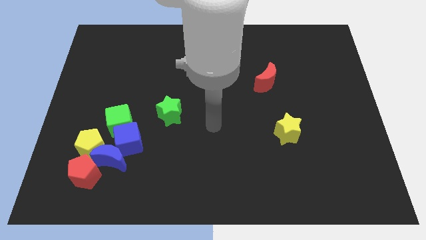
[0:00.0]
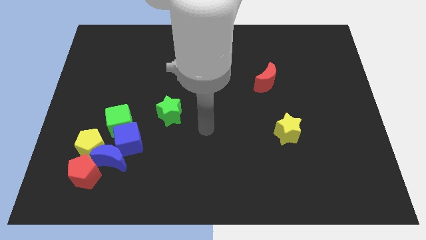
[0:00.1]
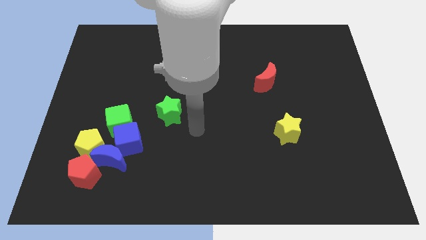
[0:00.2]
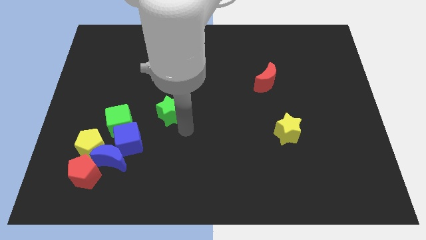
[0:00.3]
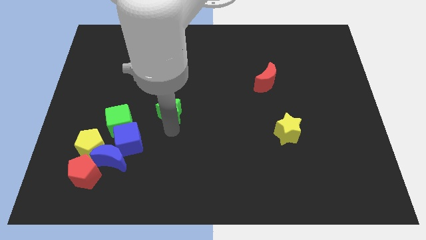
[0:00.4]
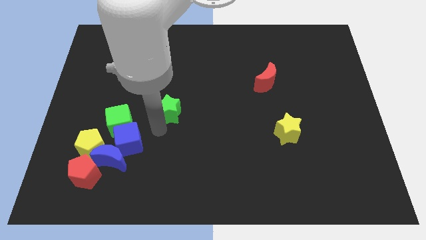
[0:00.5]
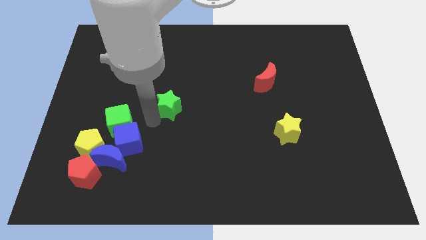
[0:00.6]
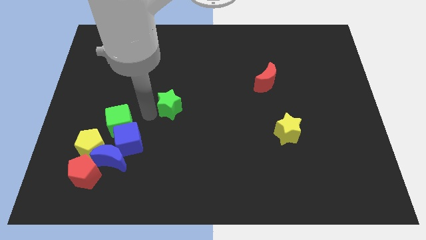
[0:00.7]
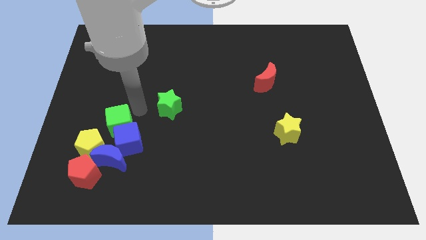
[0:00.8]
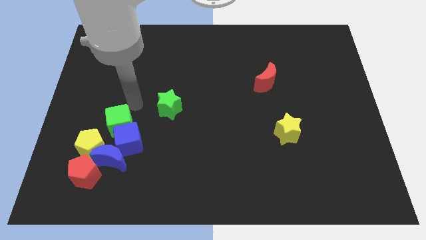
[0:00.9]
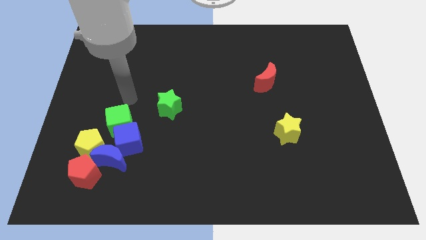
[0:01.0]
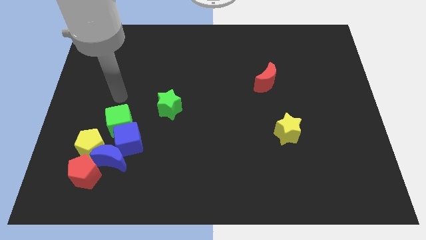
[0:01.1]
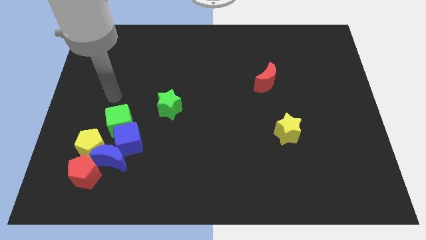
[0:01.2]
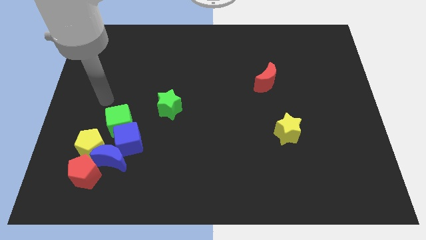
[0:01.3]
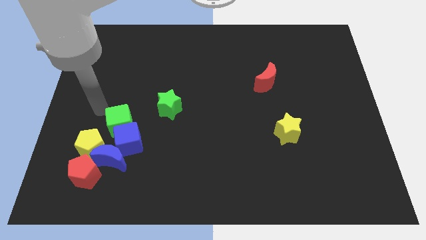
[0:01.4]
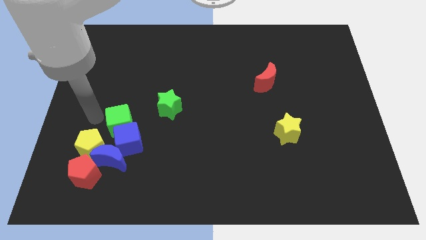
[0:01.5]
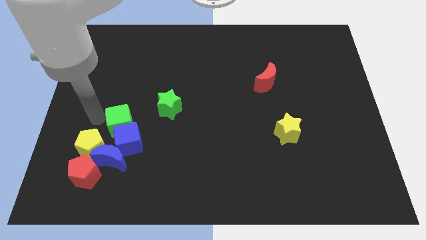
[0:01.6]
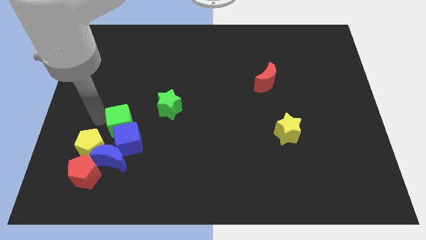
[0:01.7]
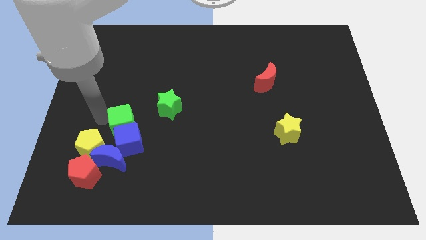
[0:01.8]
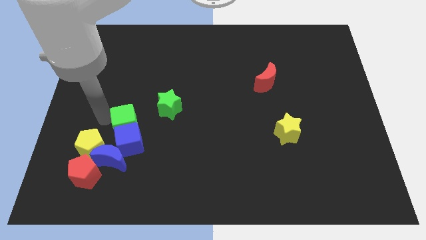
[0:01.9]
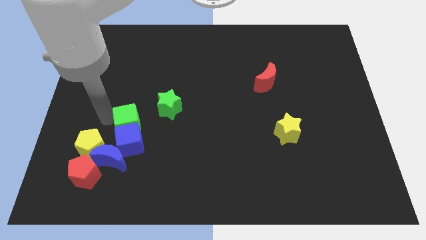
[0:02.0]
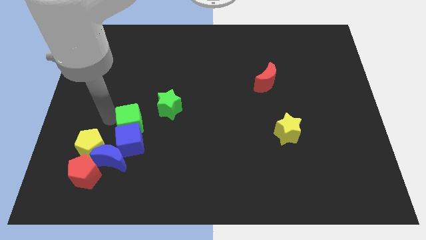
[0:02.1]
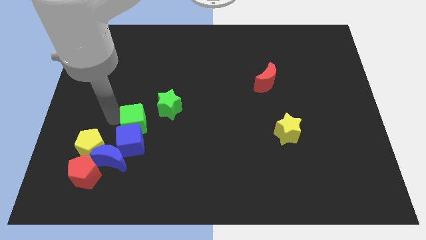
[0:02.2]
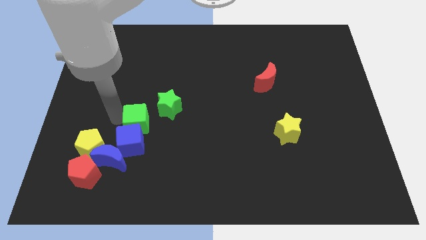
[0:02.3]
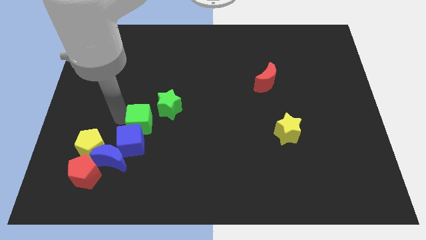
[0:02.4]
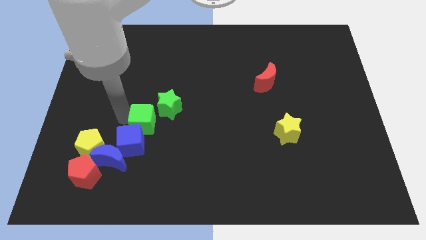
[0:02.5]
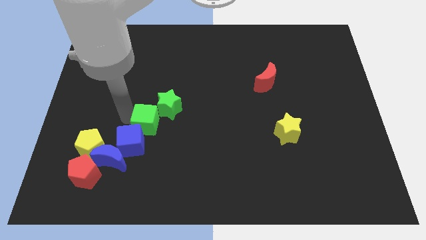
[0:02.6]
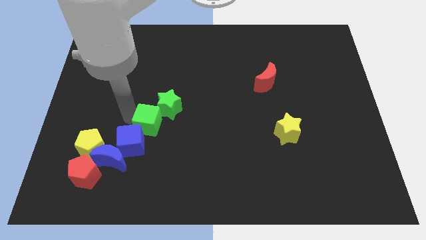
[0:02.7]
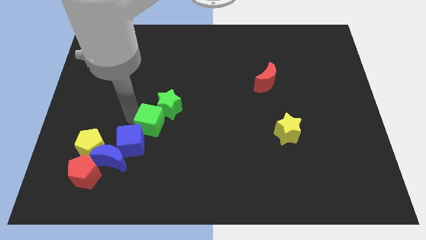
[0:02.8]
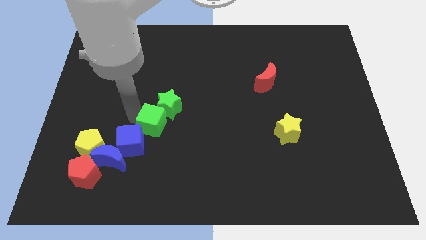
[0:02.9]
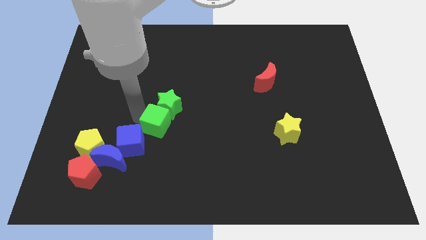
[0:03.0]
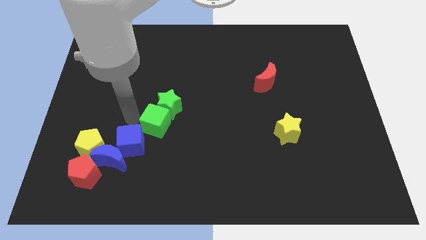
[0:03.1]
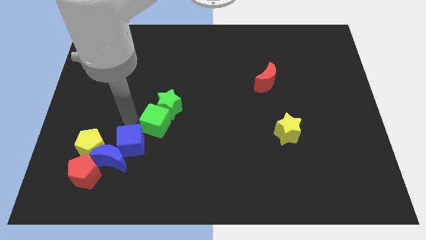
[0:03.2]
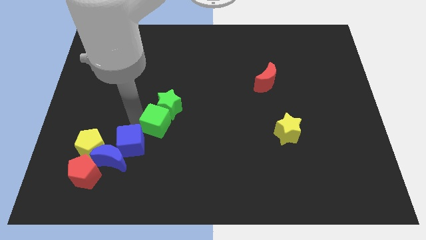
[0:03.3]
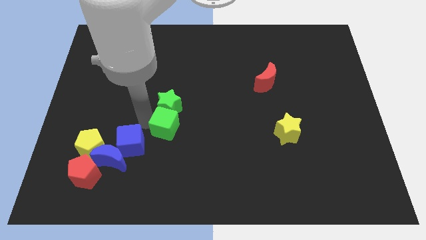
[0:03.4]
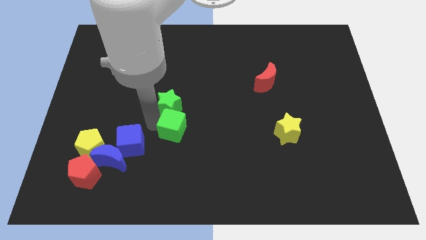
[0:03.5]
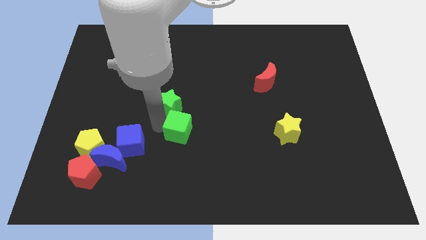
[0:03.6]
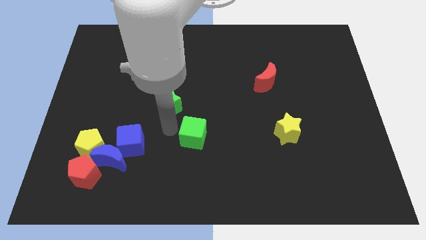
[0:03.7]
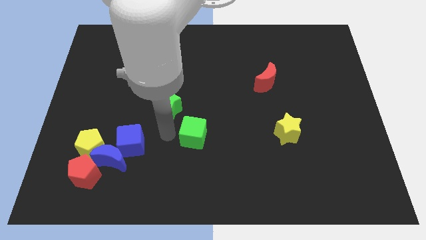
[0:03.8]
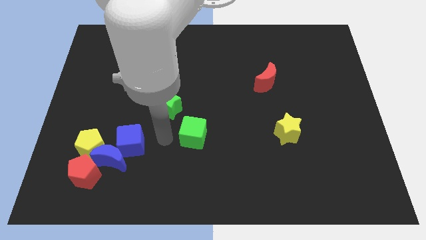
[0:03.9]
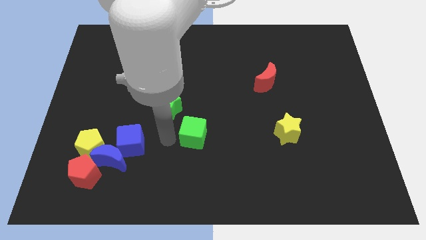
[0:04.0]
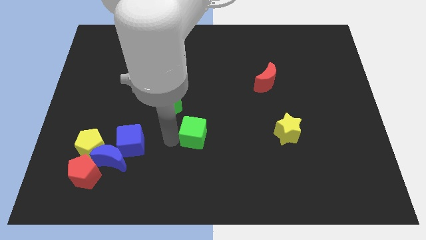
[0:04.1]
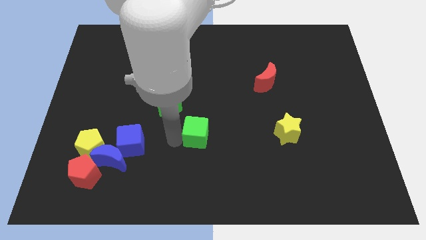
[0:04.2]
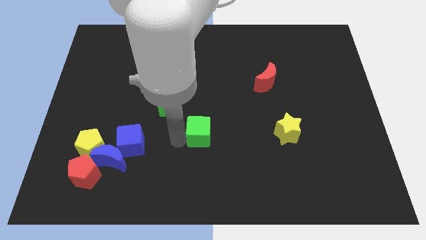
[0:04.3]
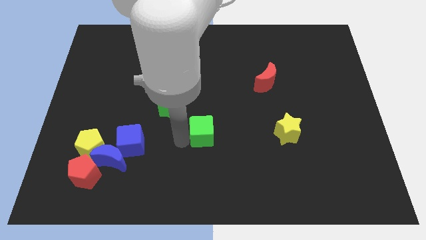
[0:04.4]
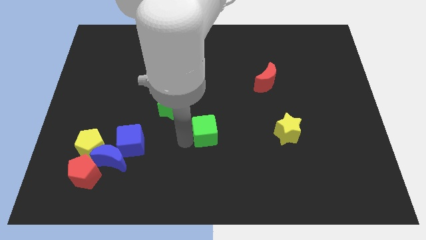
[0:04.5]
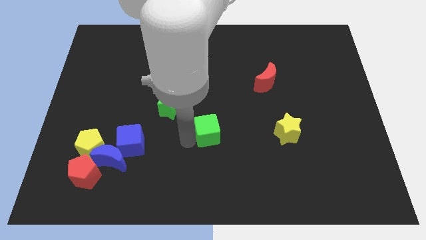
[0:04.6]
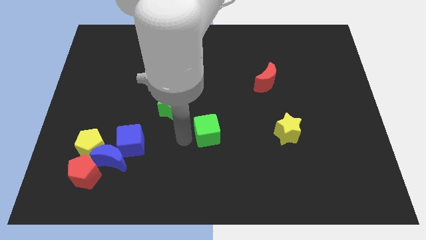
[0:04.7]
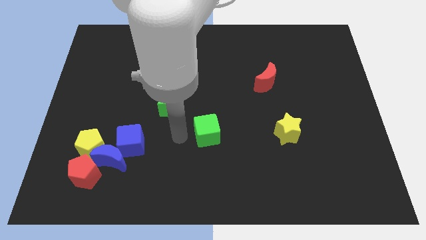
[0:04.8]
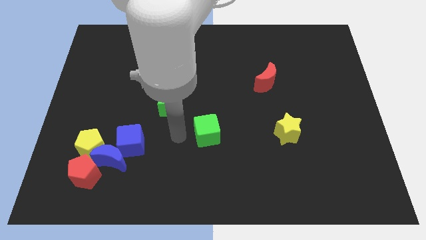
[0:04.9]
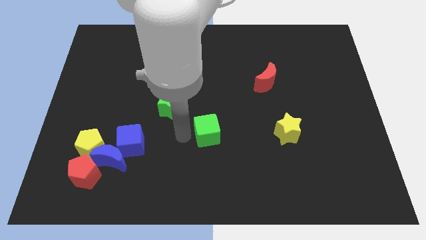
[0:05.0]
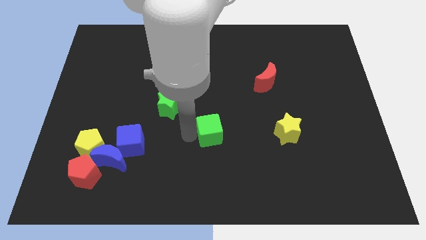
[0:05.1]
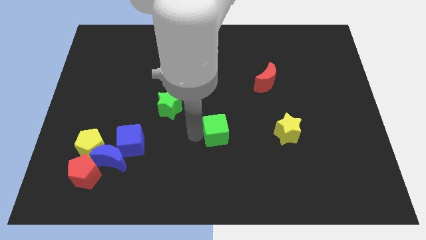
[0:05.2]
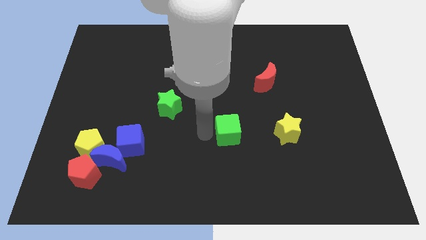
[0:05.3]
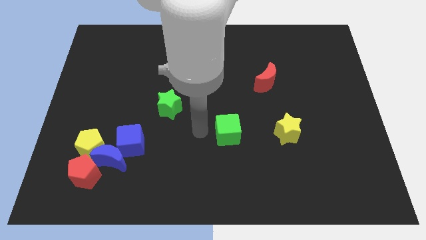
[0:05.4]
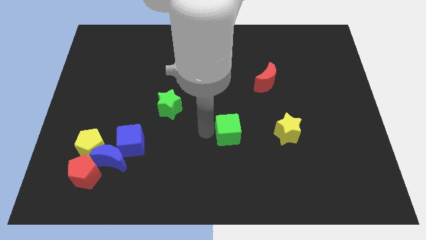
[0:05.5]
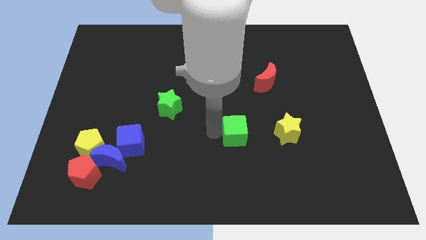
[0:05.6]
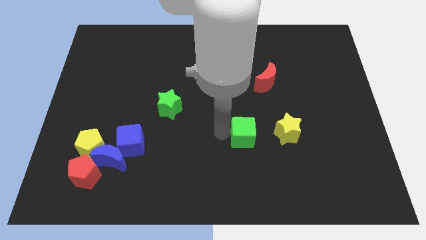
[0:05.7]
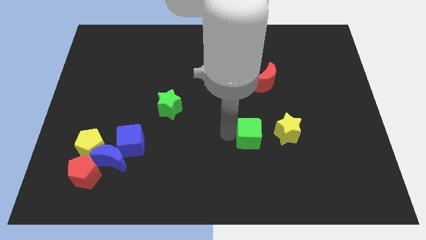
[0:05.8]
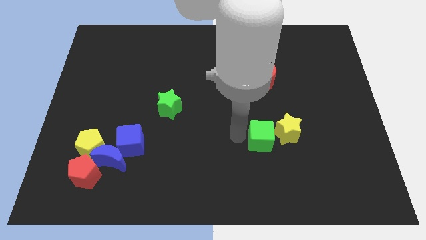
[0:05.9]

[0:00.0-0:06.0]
move the green cube close to the yellow star

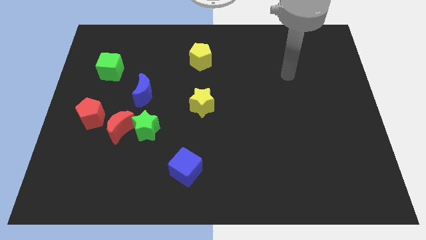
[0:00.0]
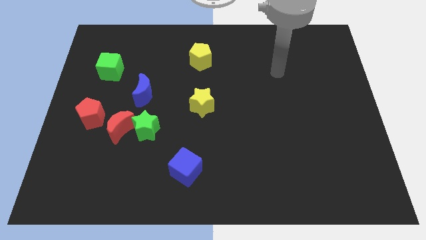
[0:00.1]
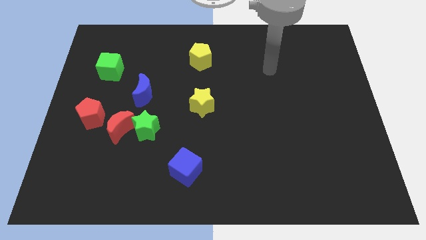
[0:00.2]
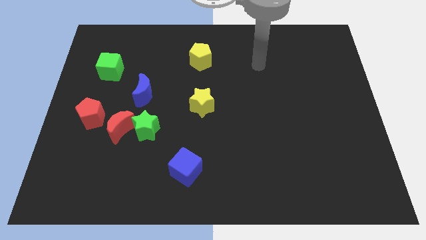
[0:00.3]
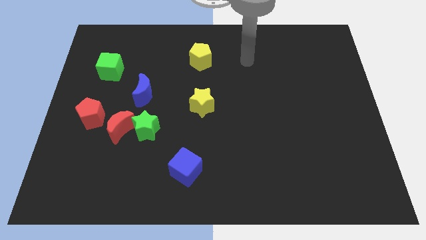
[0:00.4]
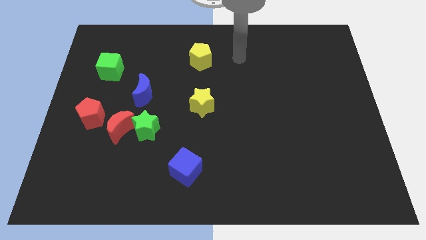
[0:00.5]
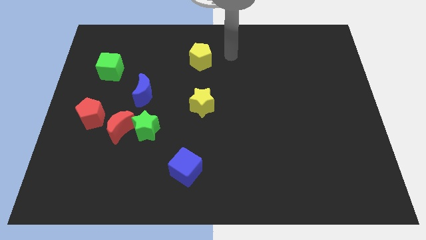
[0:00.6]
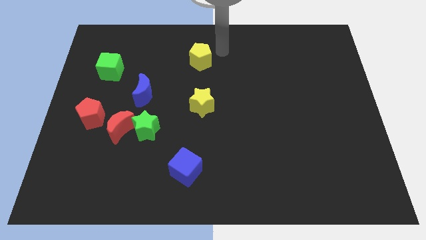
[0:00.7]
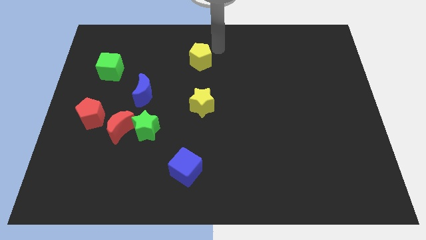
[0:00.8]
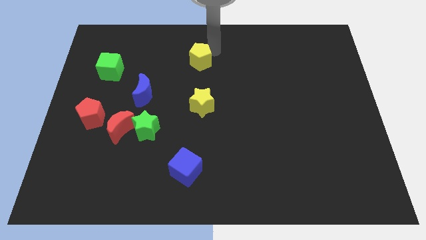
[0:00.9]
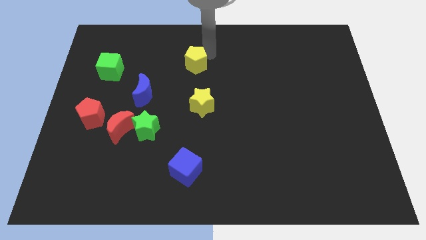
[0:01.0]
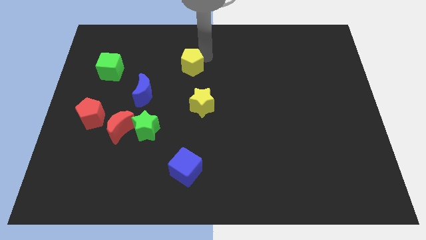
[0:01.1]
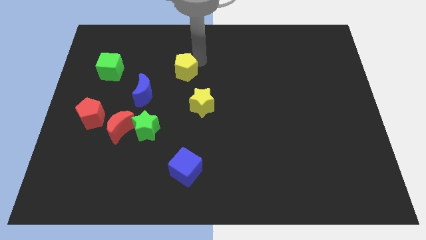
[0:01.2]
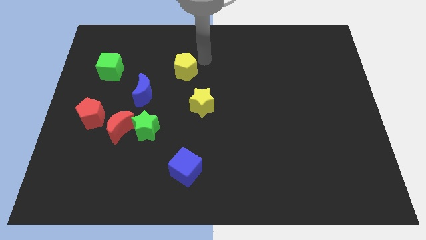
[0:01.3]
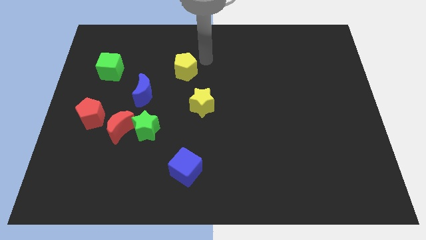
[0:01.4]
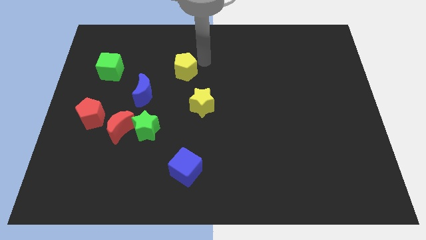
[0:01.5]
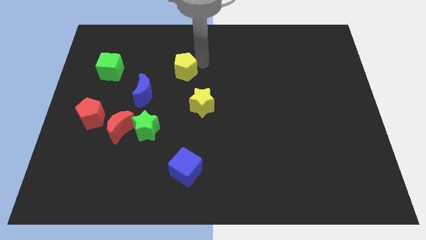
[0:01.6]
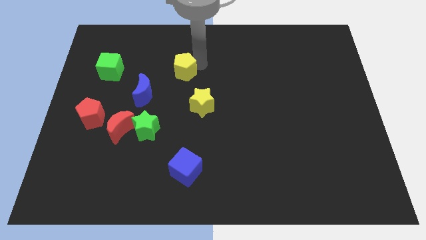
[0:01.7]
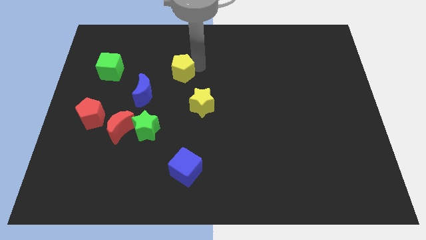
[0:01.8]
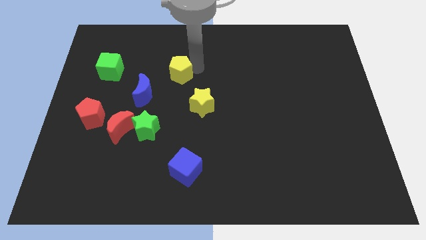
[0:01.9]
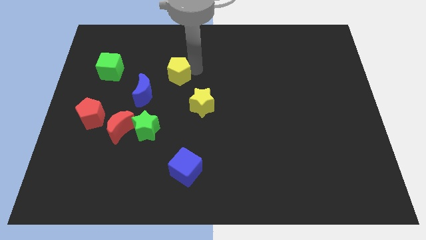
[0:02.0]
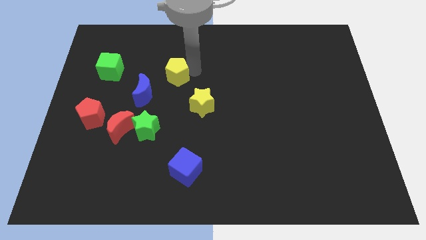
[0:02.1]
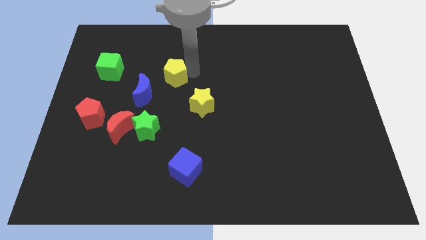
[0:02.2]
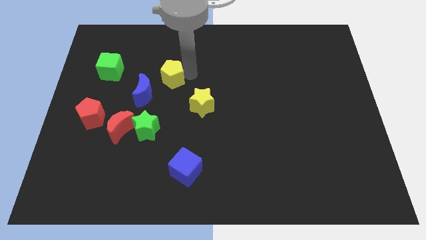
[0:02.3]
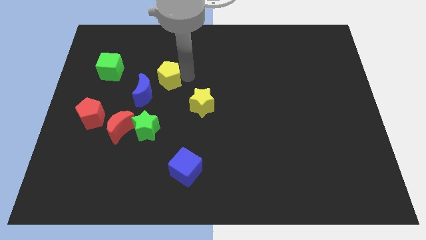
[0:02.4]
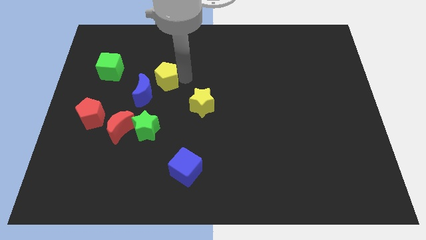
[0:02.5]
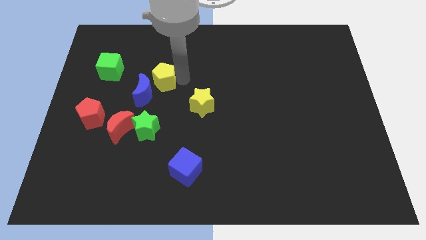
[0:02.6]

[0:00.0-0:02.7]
slide the yellow pentagon to the blue moon
